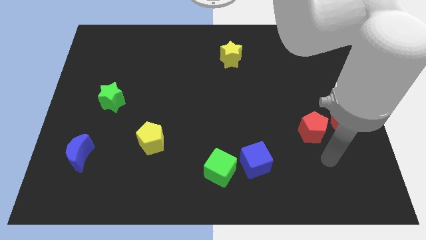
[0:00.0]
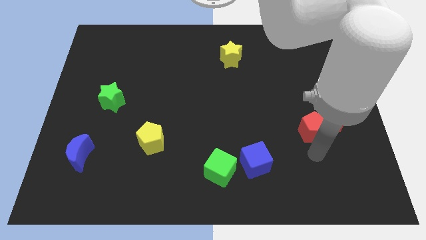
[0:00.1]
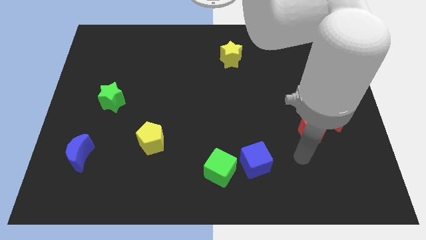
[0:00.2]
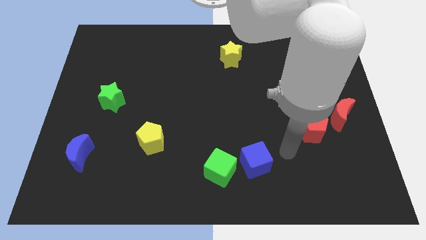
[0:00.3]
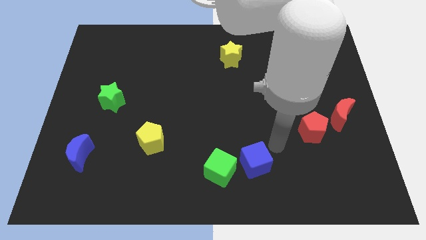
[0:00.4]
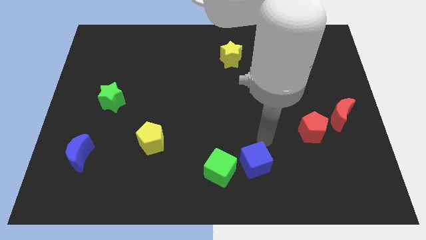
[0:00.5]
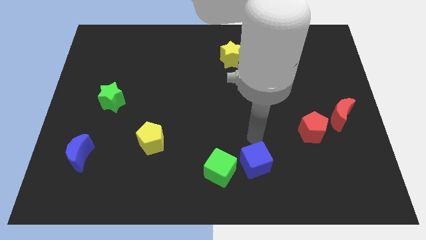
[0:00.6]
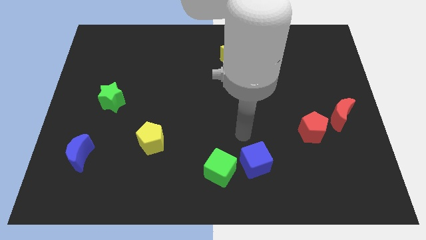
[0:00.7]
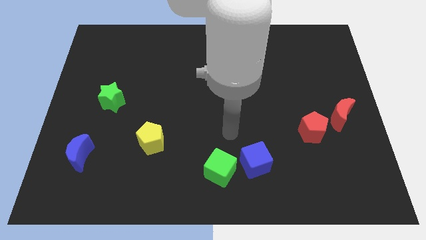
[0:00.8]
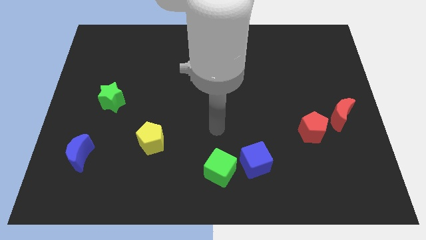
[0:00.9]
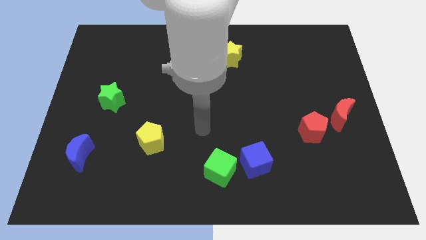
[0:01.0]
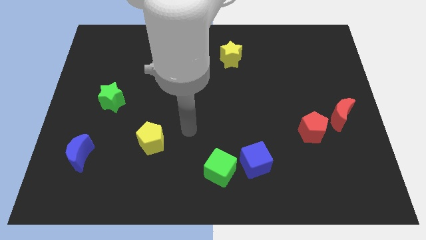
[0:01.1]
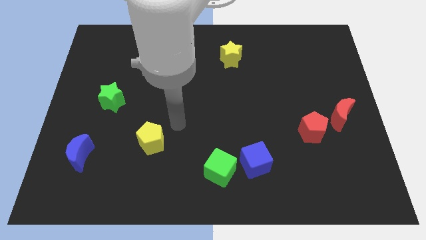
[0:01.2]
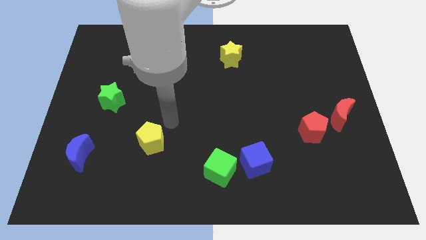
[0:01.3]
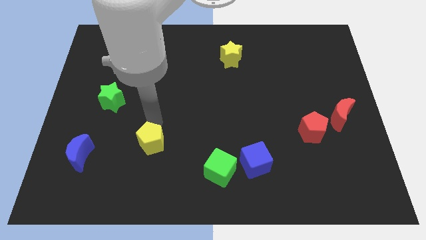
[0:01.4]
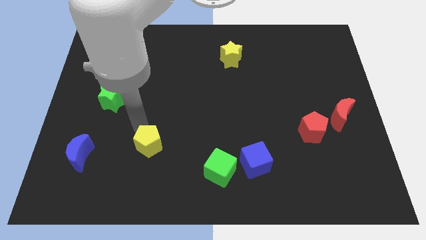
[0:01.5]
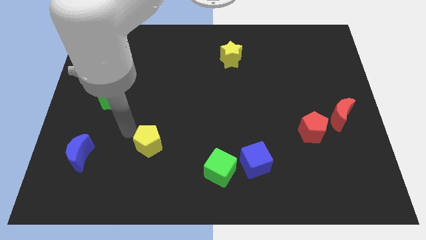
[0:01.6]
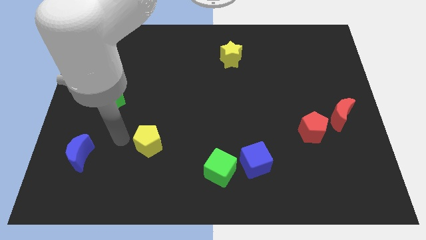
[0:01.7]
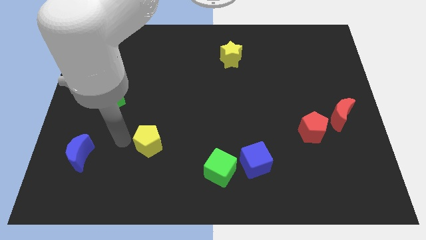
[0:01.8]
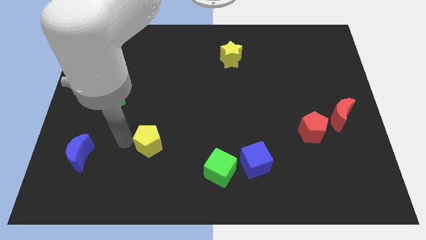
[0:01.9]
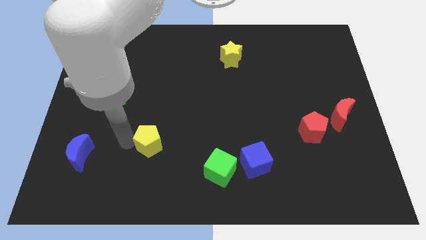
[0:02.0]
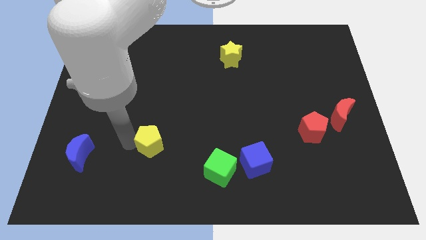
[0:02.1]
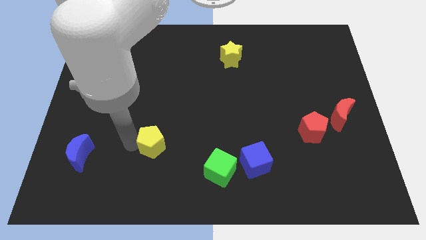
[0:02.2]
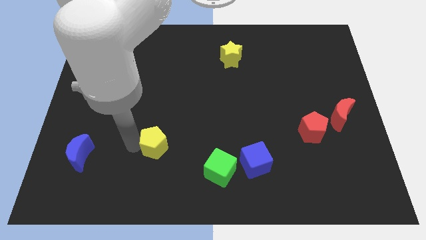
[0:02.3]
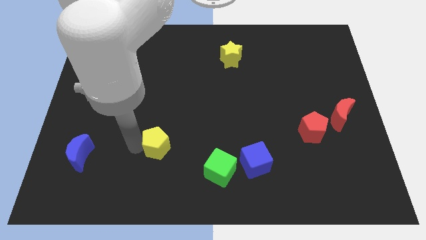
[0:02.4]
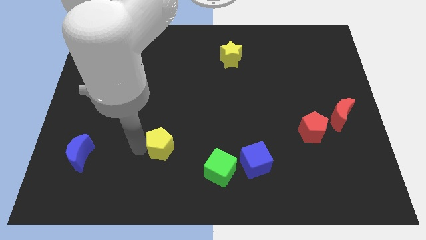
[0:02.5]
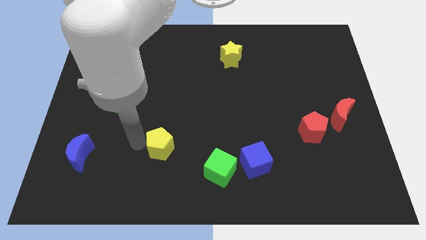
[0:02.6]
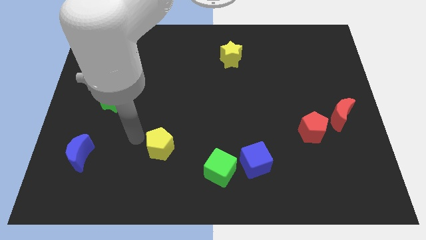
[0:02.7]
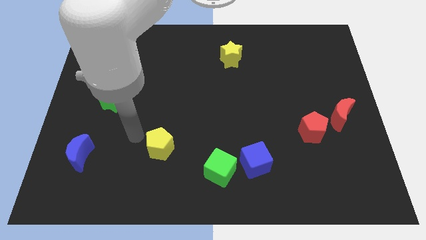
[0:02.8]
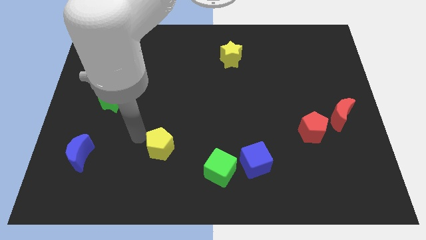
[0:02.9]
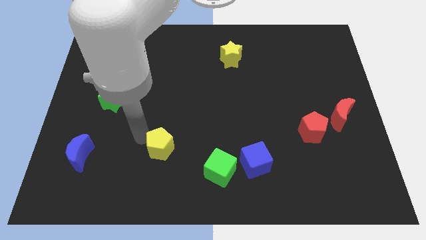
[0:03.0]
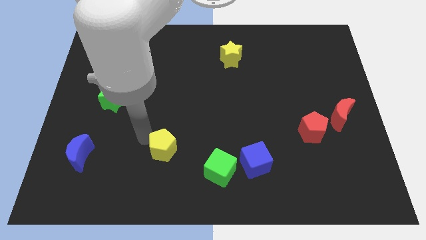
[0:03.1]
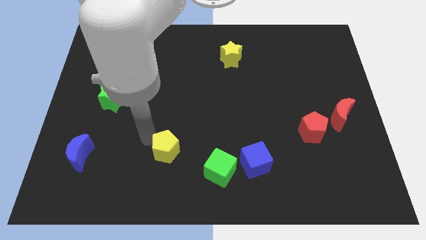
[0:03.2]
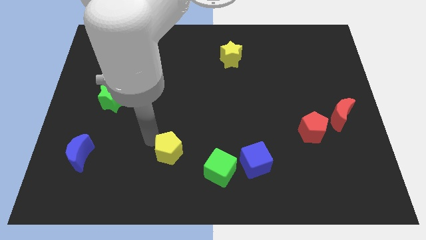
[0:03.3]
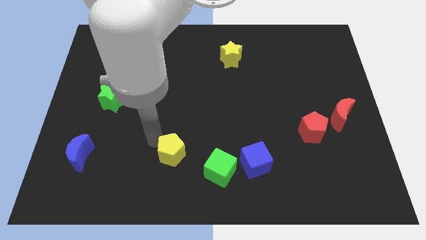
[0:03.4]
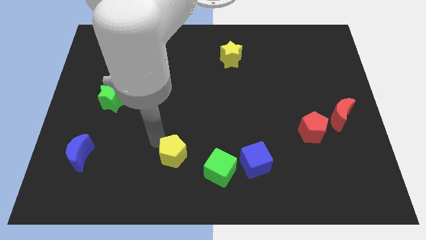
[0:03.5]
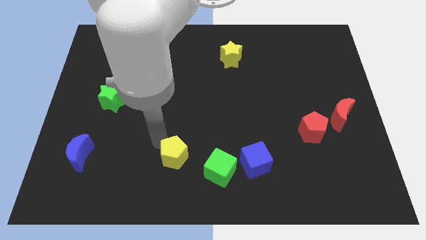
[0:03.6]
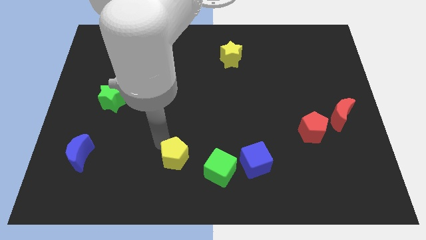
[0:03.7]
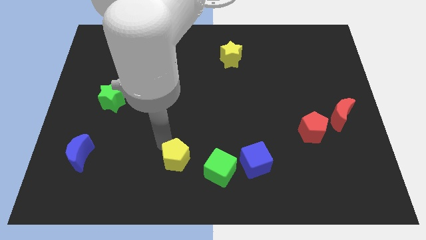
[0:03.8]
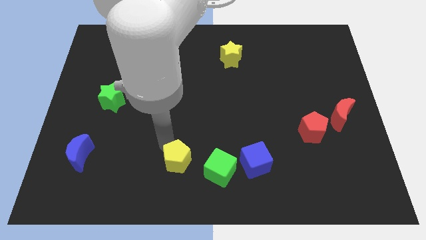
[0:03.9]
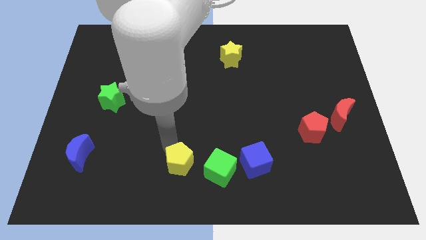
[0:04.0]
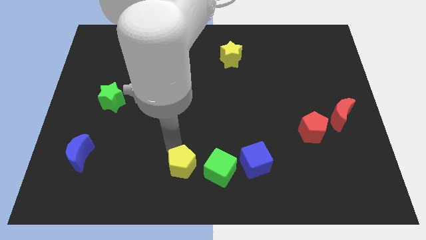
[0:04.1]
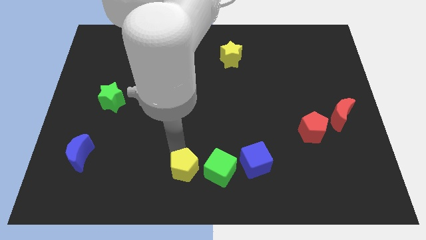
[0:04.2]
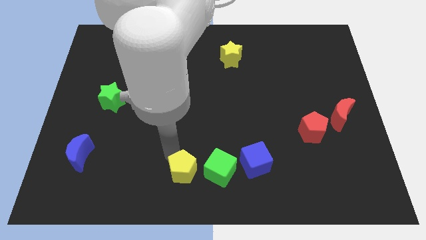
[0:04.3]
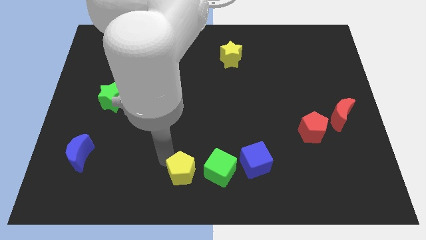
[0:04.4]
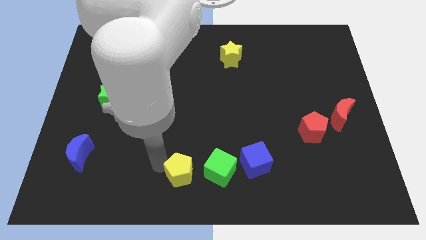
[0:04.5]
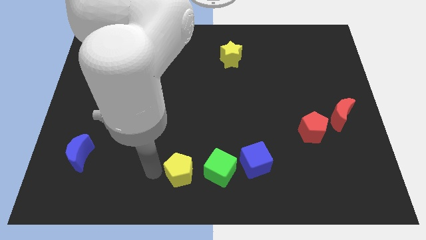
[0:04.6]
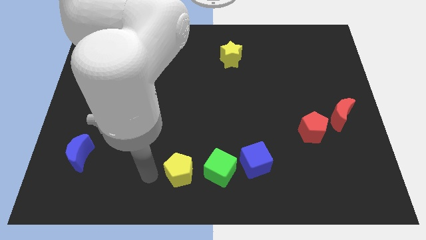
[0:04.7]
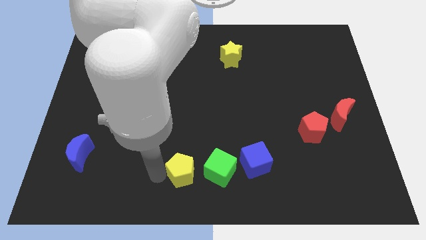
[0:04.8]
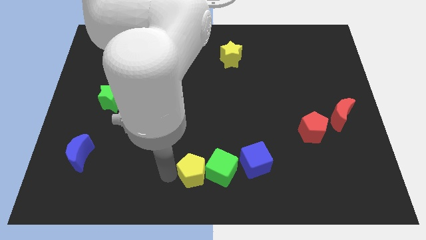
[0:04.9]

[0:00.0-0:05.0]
slide the yellow pentagon next to the green cube

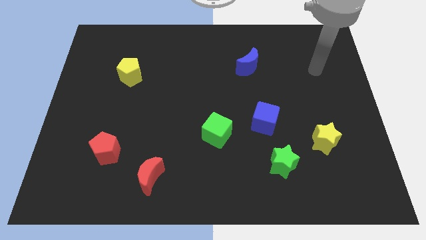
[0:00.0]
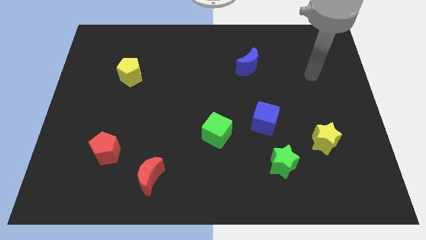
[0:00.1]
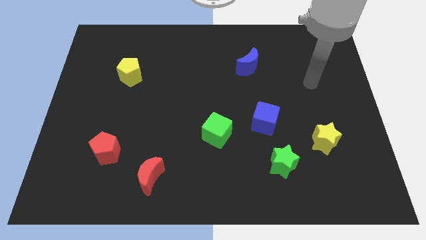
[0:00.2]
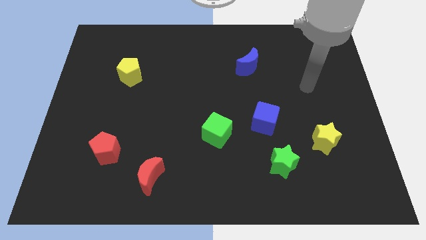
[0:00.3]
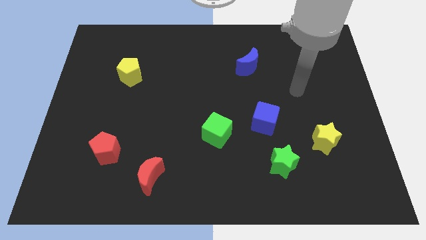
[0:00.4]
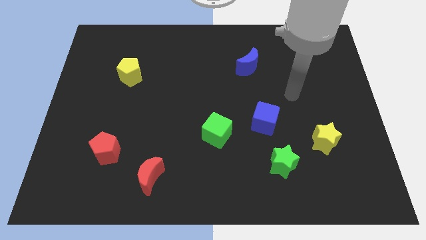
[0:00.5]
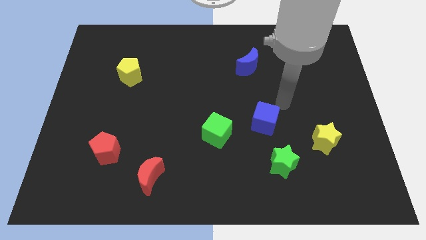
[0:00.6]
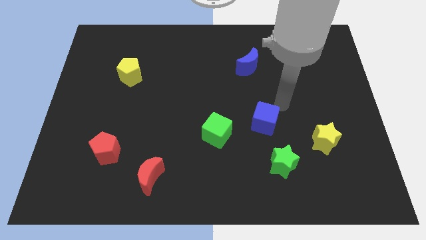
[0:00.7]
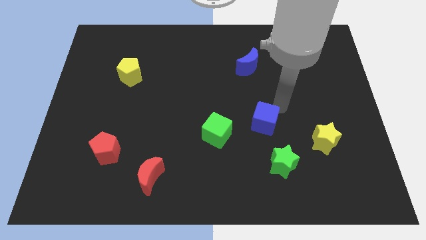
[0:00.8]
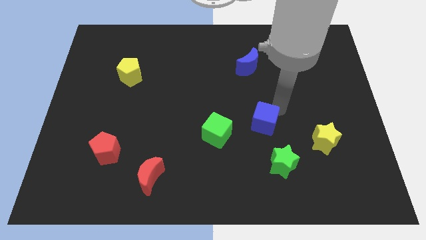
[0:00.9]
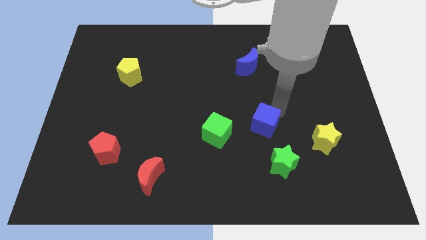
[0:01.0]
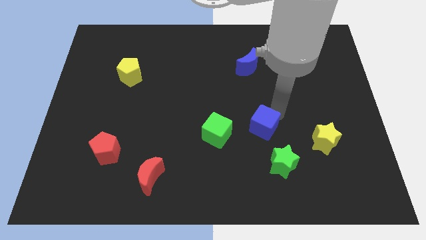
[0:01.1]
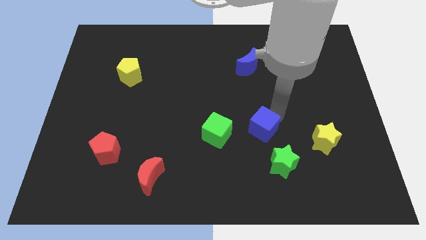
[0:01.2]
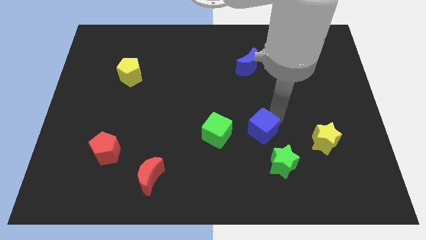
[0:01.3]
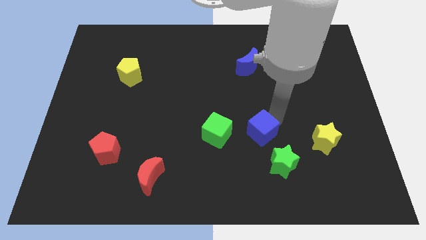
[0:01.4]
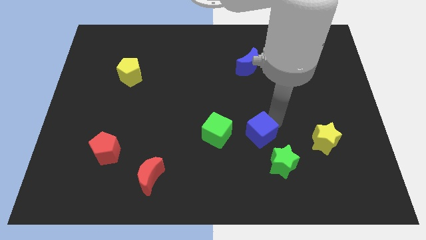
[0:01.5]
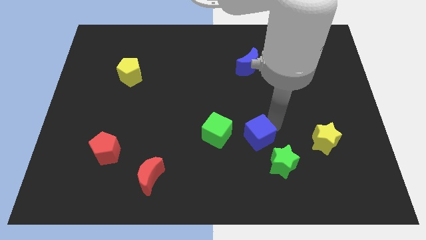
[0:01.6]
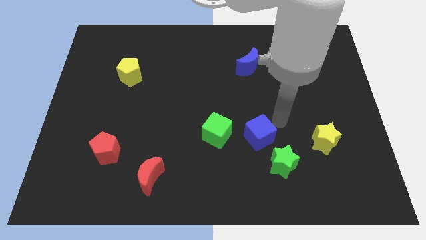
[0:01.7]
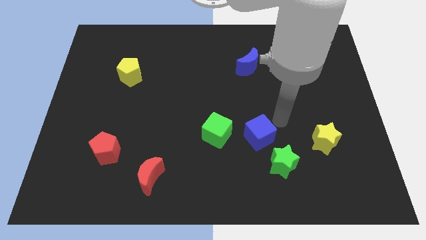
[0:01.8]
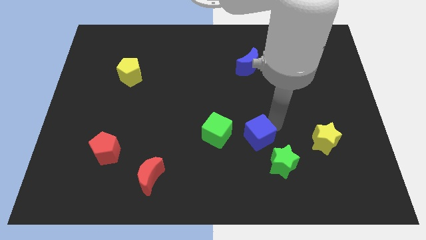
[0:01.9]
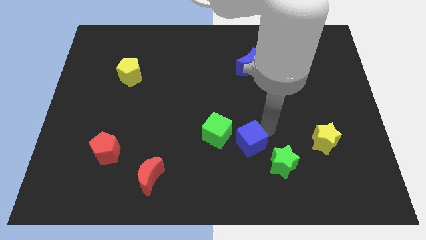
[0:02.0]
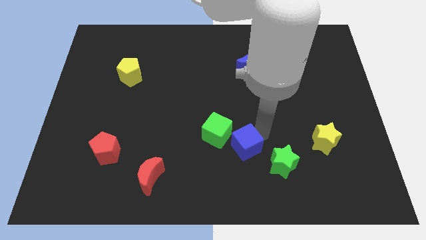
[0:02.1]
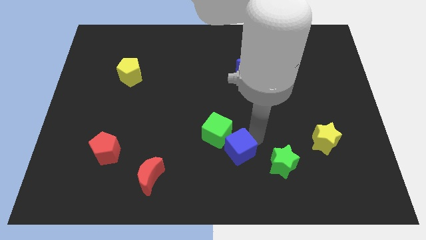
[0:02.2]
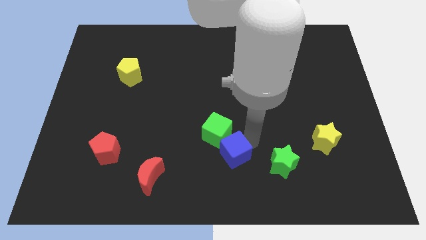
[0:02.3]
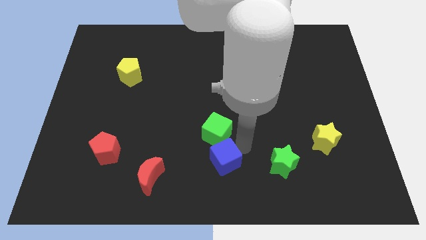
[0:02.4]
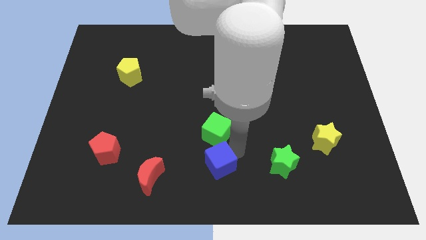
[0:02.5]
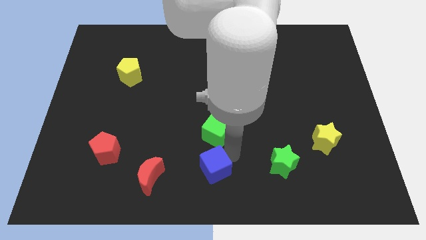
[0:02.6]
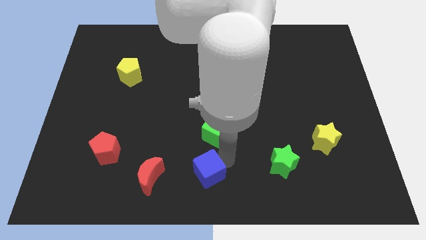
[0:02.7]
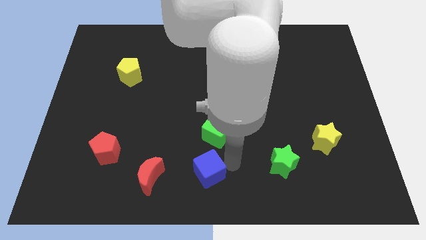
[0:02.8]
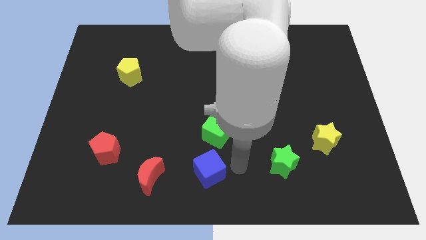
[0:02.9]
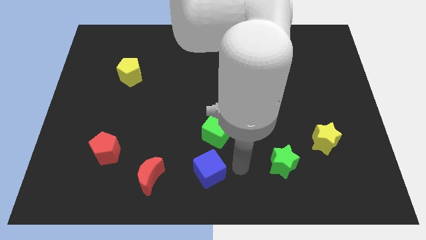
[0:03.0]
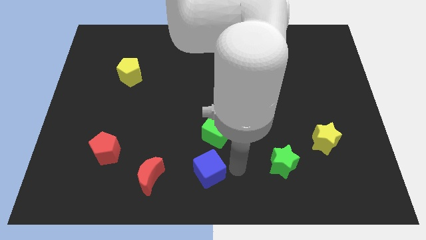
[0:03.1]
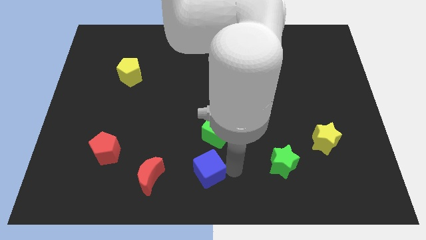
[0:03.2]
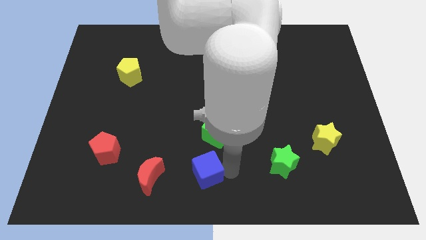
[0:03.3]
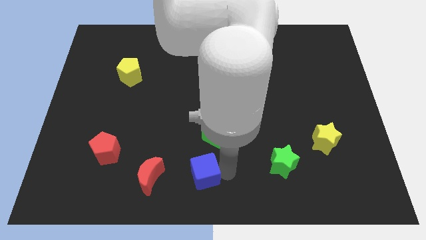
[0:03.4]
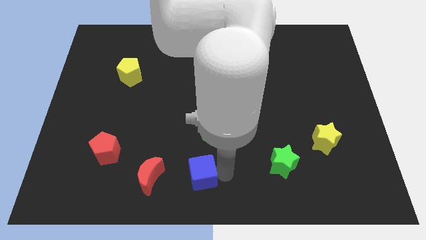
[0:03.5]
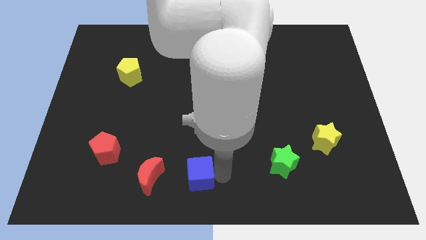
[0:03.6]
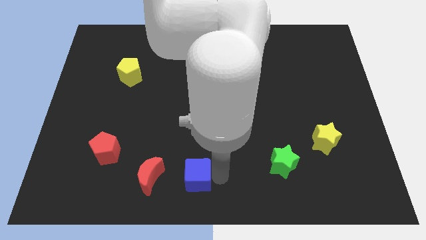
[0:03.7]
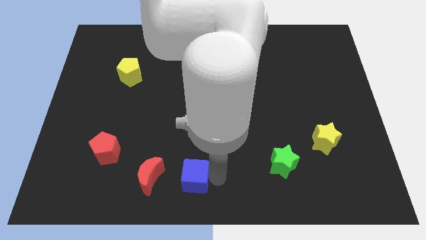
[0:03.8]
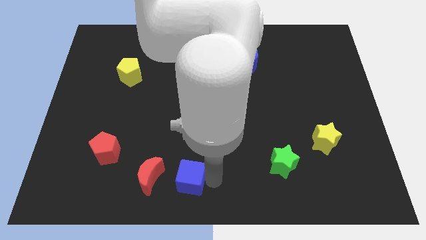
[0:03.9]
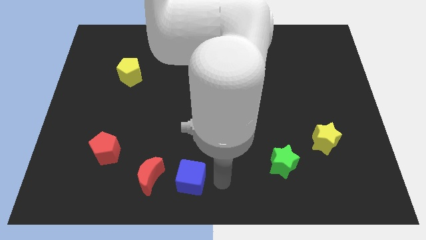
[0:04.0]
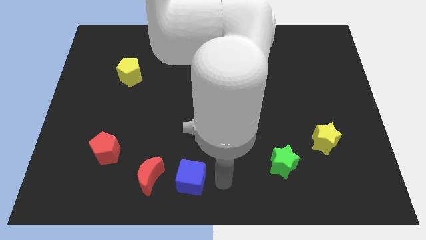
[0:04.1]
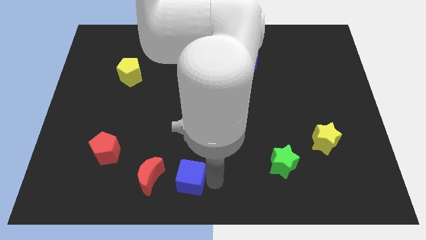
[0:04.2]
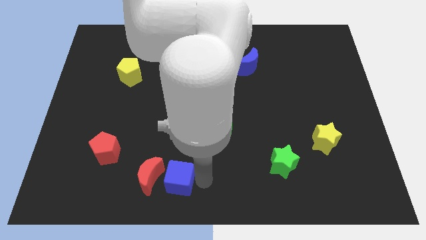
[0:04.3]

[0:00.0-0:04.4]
push the blue cube next to the red moon
